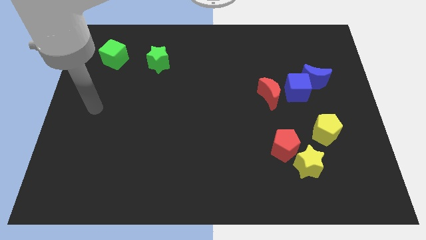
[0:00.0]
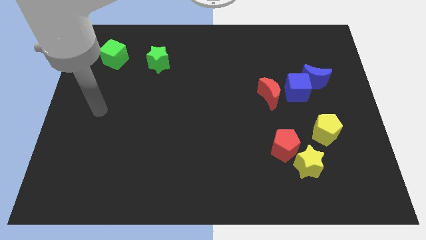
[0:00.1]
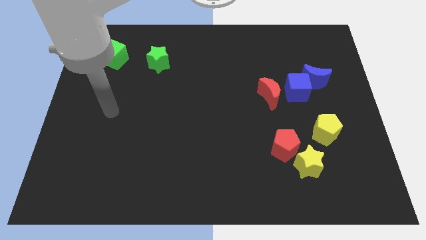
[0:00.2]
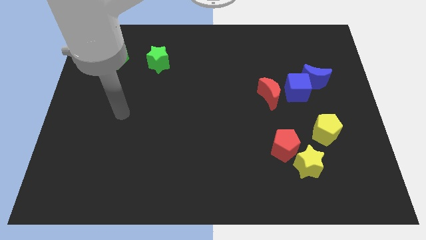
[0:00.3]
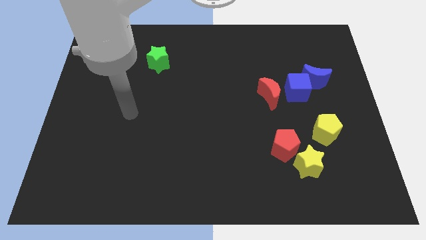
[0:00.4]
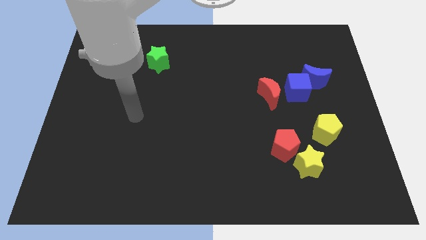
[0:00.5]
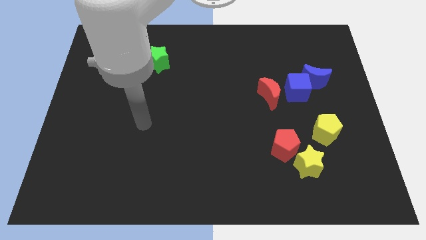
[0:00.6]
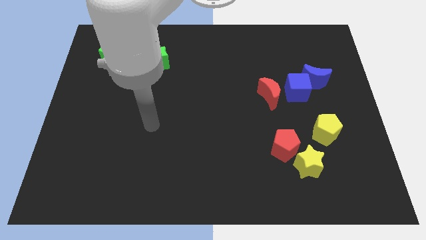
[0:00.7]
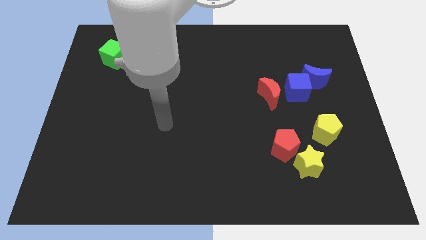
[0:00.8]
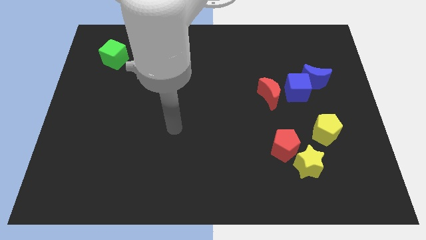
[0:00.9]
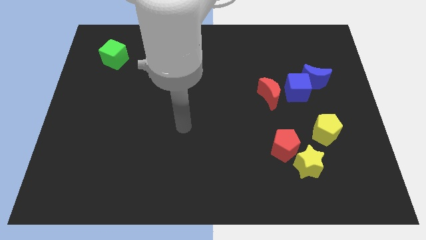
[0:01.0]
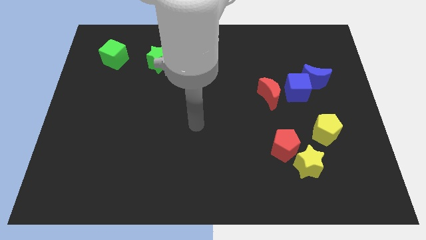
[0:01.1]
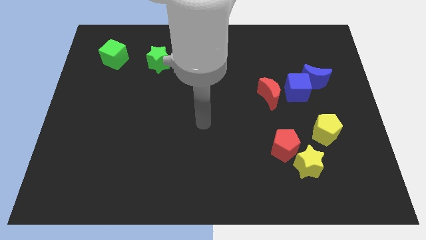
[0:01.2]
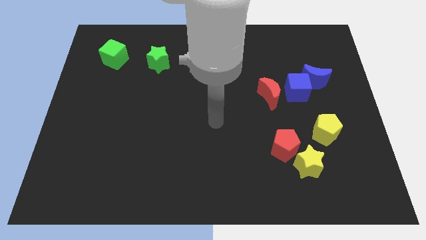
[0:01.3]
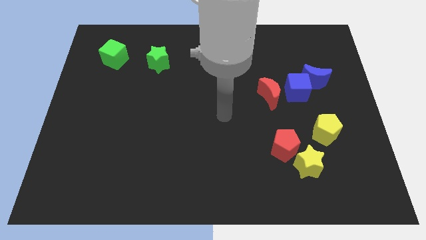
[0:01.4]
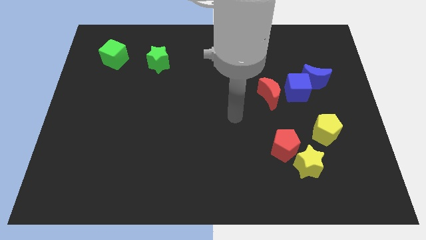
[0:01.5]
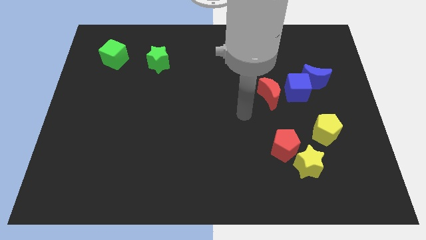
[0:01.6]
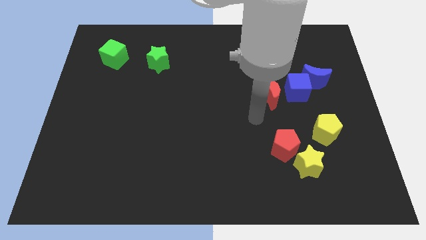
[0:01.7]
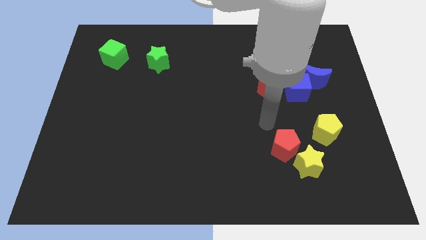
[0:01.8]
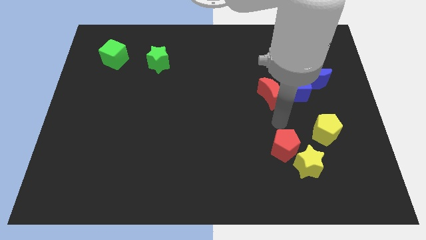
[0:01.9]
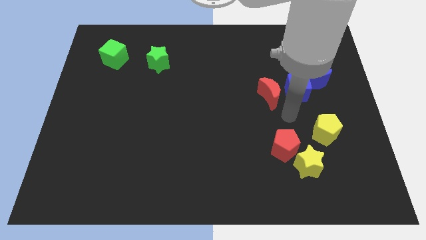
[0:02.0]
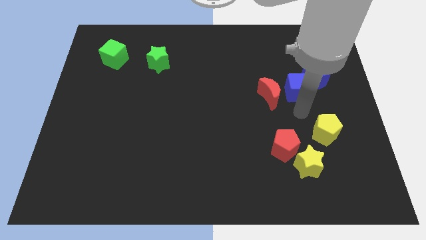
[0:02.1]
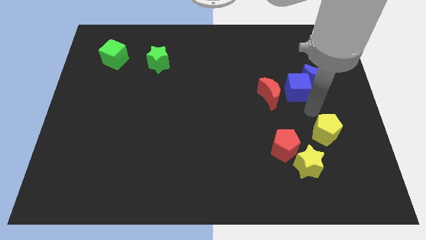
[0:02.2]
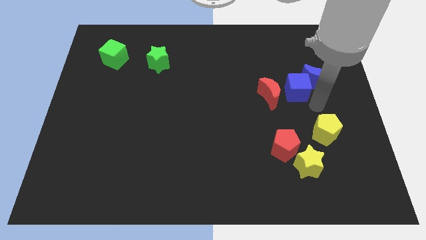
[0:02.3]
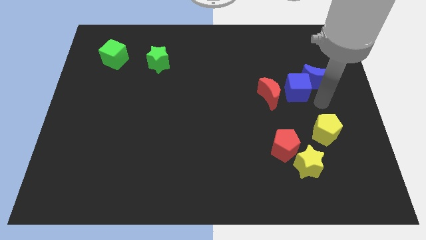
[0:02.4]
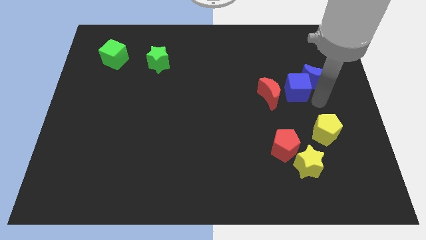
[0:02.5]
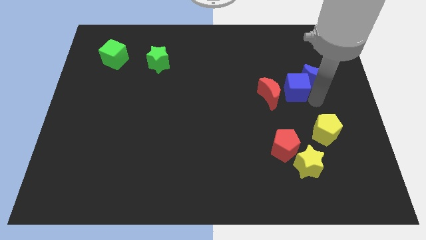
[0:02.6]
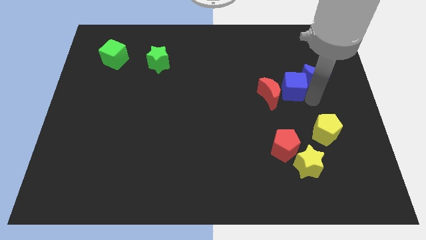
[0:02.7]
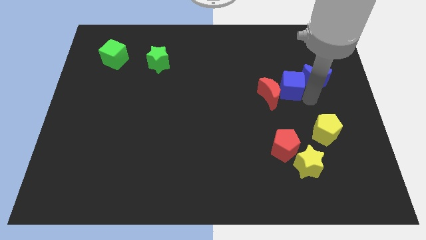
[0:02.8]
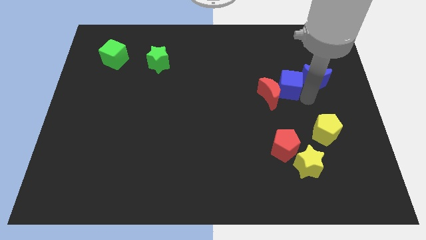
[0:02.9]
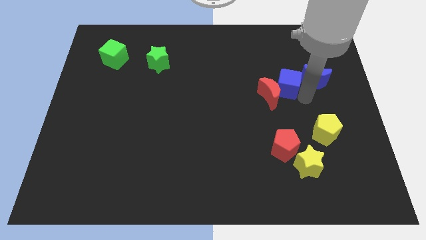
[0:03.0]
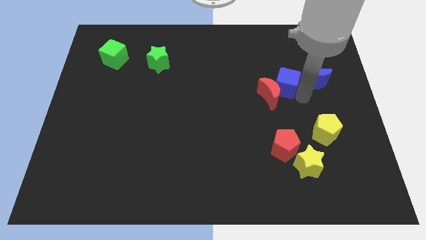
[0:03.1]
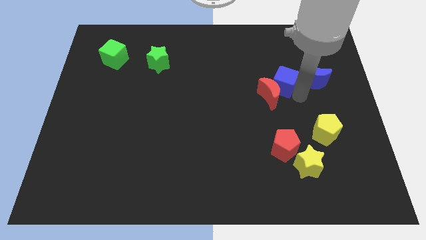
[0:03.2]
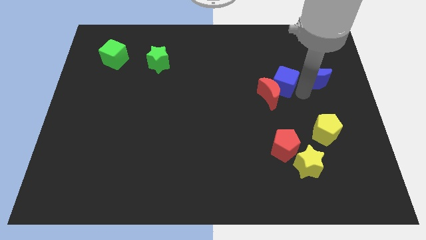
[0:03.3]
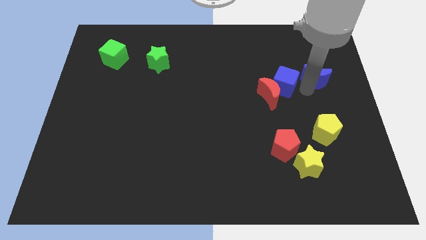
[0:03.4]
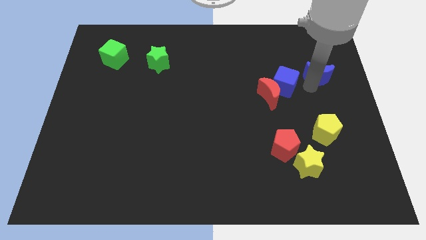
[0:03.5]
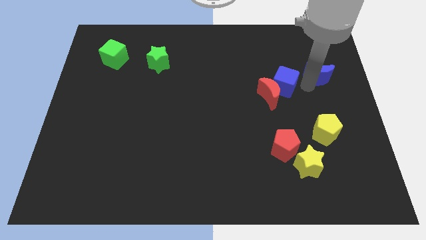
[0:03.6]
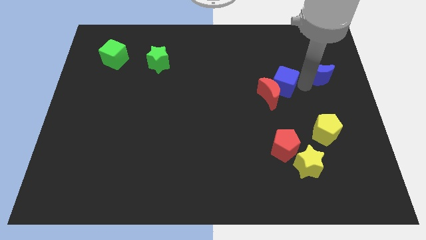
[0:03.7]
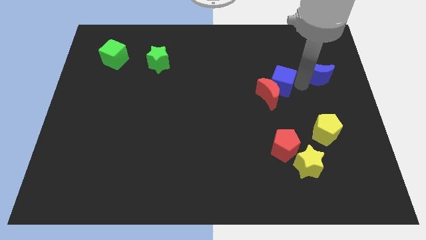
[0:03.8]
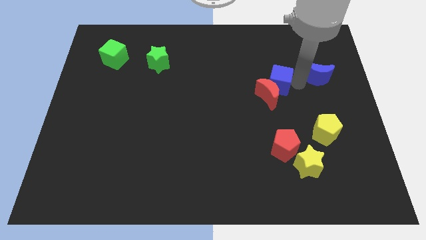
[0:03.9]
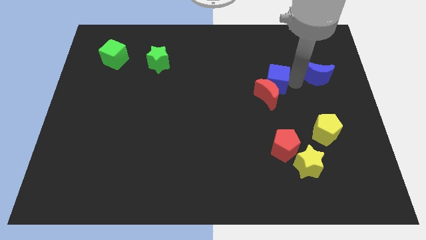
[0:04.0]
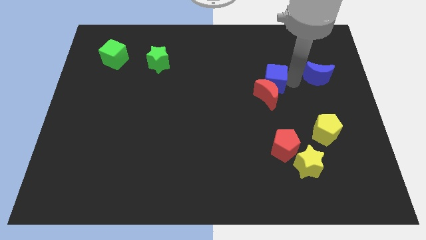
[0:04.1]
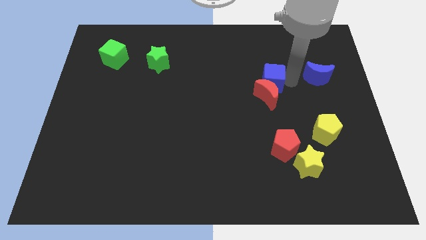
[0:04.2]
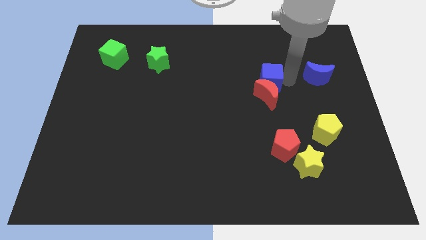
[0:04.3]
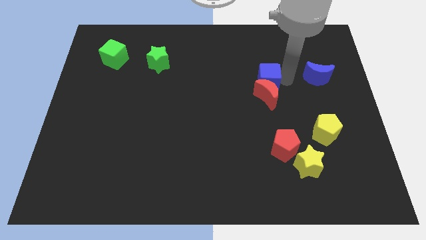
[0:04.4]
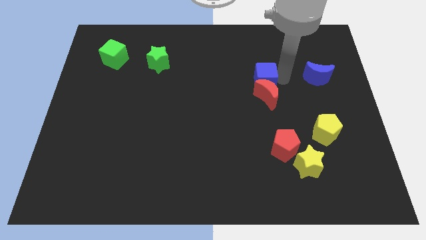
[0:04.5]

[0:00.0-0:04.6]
move the blue cube left a little

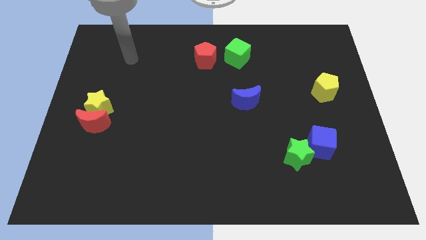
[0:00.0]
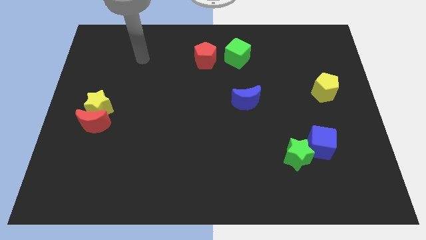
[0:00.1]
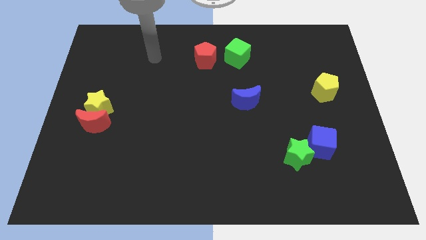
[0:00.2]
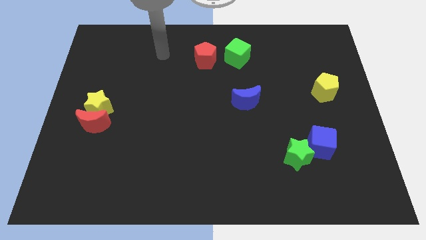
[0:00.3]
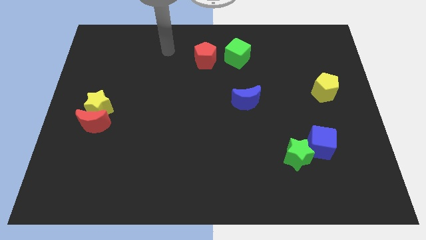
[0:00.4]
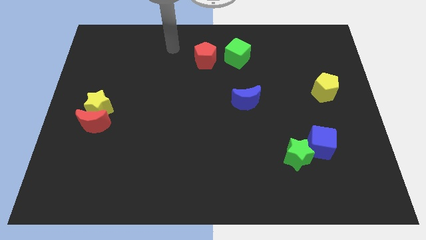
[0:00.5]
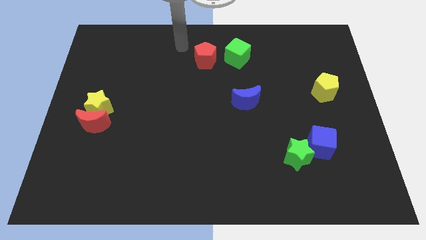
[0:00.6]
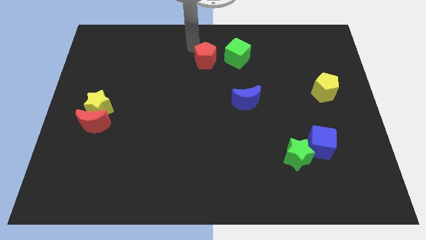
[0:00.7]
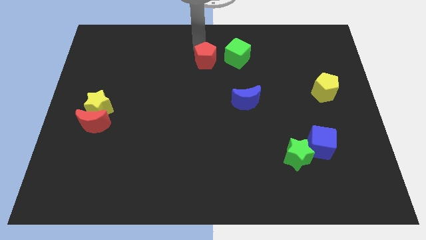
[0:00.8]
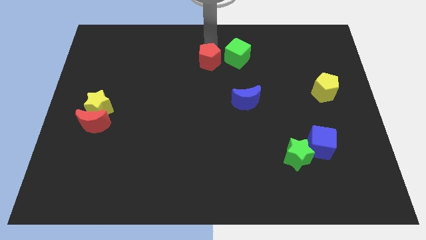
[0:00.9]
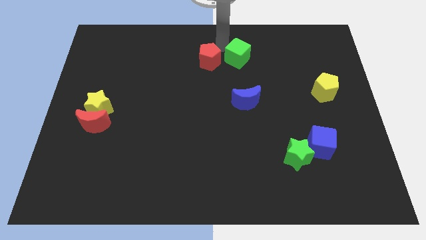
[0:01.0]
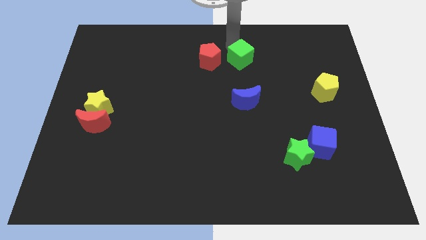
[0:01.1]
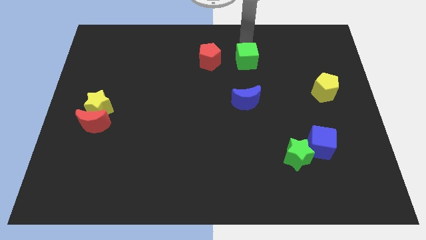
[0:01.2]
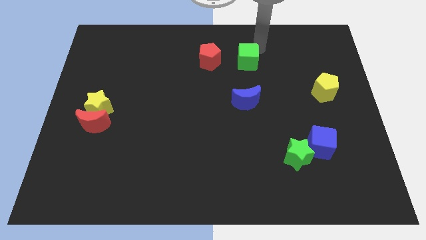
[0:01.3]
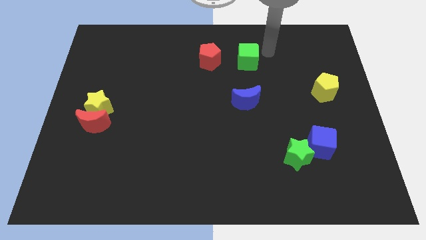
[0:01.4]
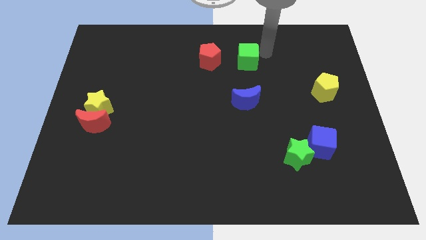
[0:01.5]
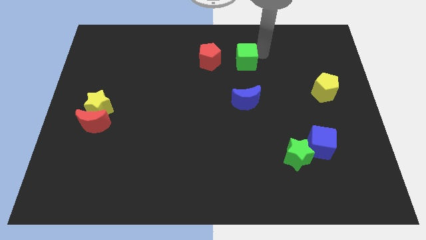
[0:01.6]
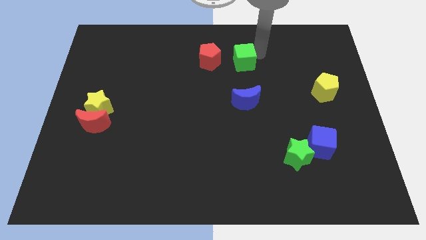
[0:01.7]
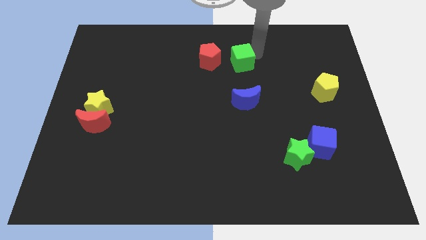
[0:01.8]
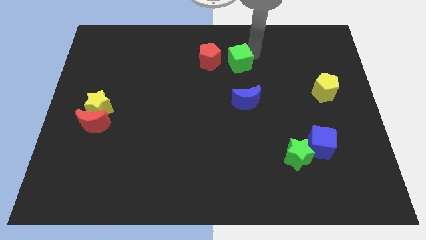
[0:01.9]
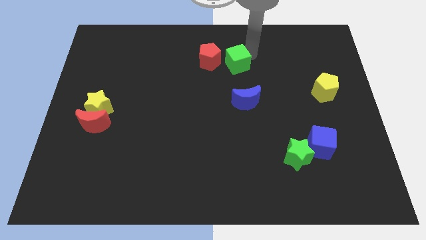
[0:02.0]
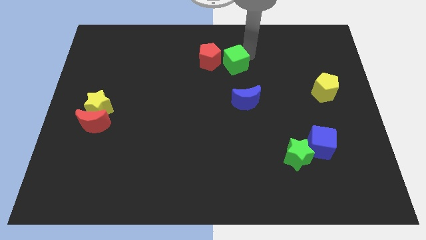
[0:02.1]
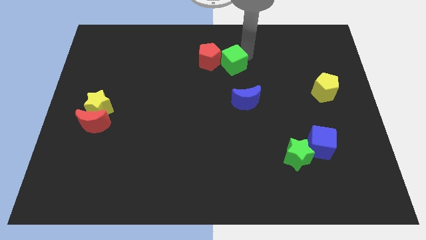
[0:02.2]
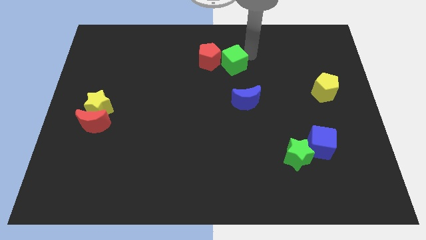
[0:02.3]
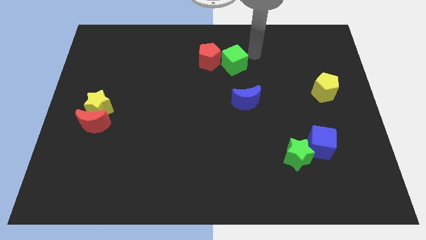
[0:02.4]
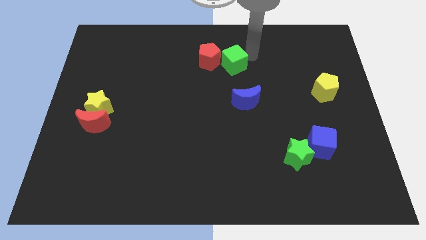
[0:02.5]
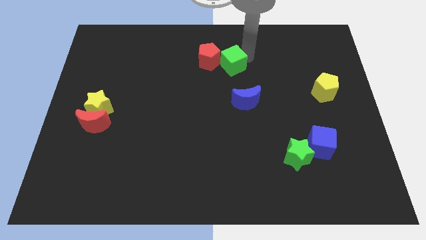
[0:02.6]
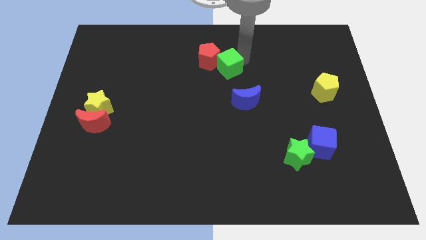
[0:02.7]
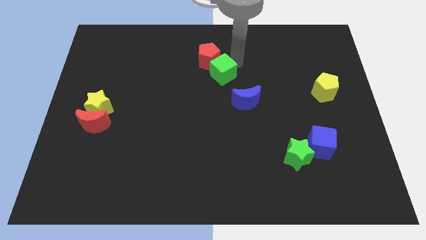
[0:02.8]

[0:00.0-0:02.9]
move the green cube somewhat diagonally down and to the left

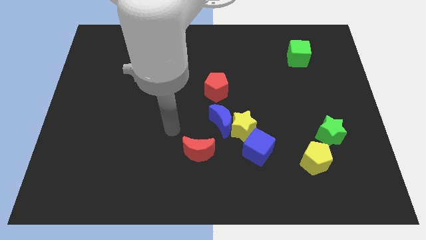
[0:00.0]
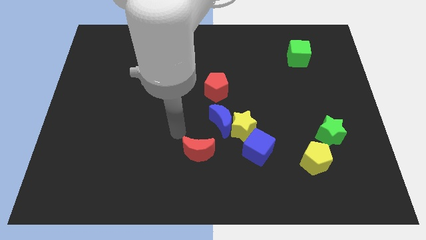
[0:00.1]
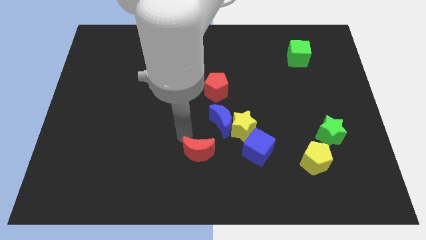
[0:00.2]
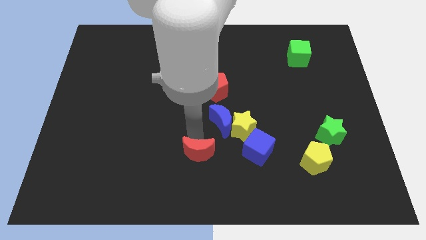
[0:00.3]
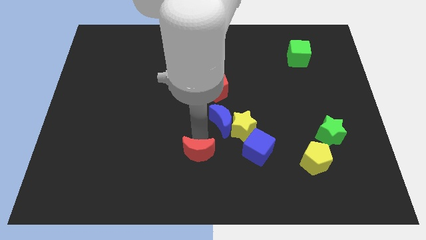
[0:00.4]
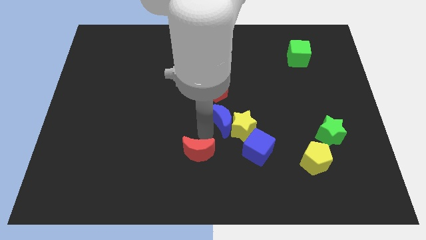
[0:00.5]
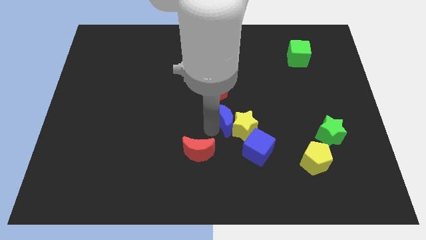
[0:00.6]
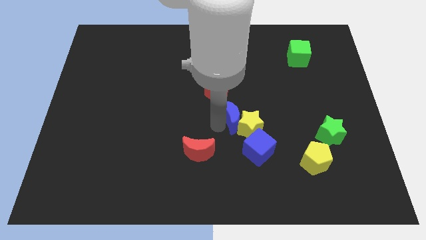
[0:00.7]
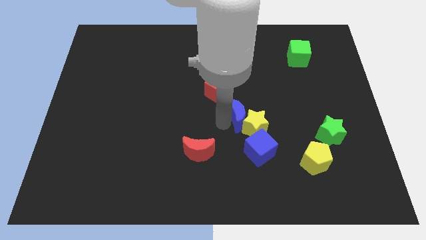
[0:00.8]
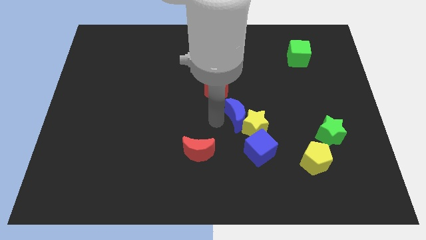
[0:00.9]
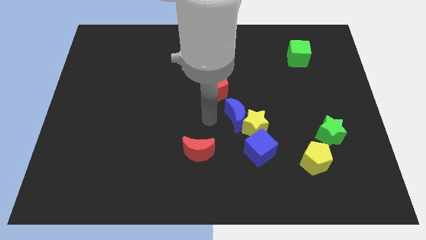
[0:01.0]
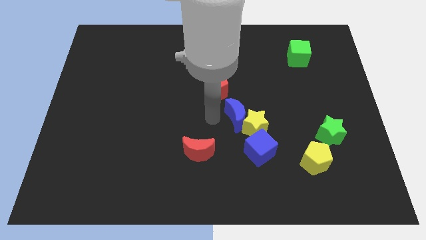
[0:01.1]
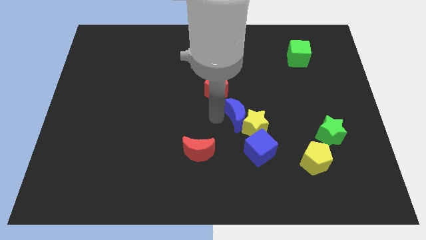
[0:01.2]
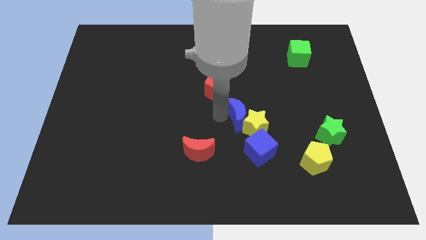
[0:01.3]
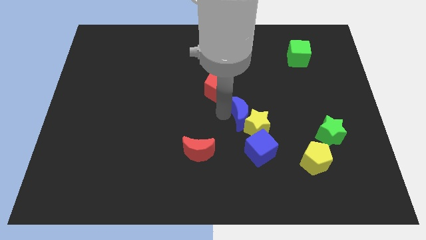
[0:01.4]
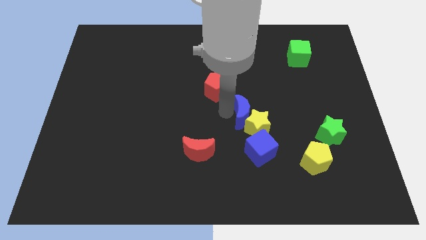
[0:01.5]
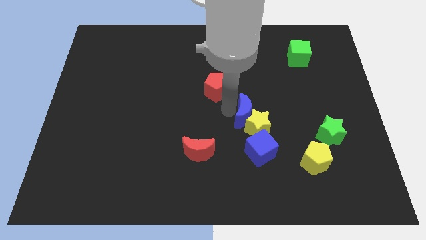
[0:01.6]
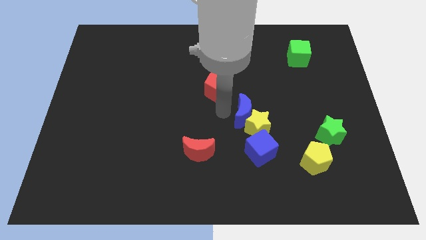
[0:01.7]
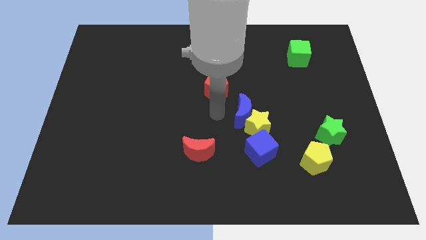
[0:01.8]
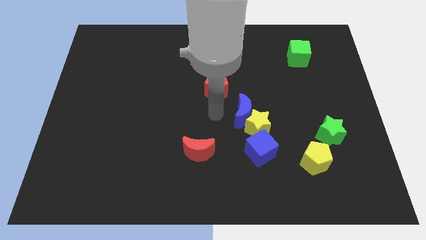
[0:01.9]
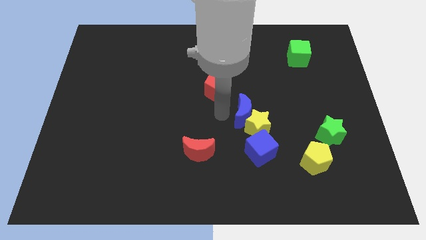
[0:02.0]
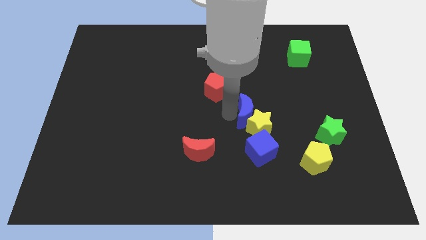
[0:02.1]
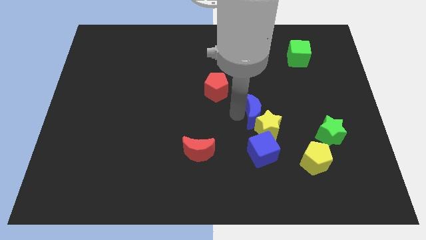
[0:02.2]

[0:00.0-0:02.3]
push the blue moon slightly to the right
